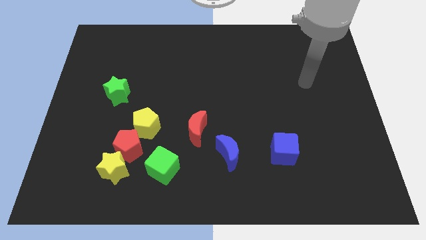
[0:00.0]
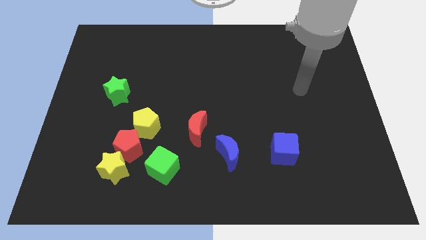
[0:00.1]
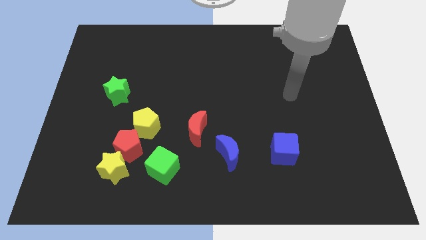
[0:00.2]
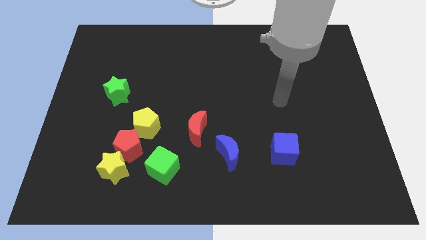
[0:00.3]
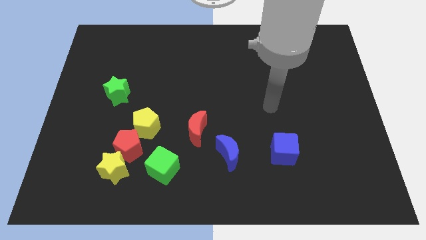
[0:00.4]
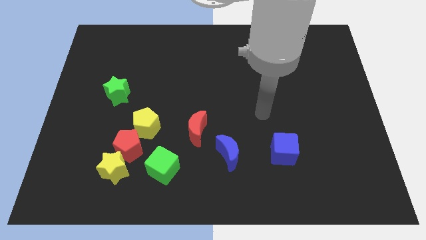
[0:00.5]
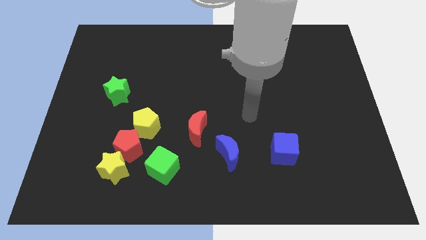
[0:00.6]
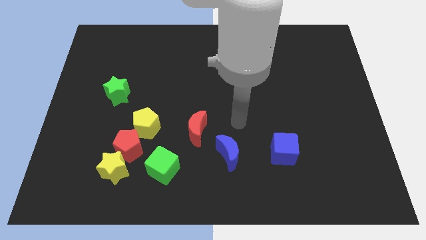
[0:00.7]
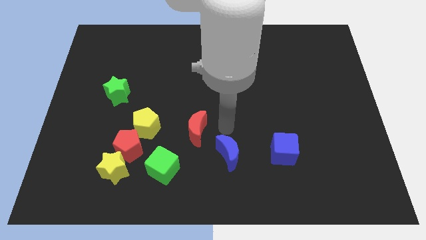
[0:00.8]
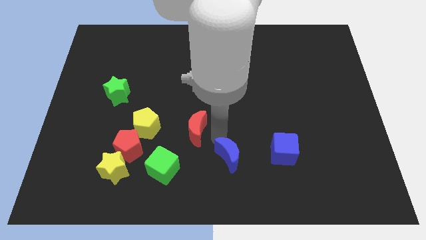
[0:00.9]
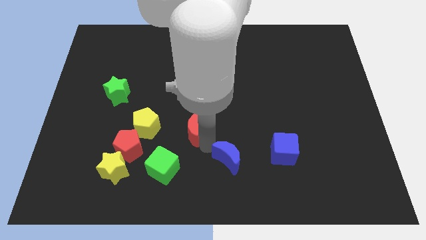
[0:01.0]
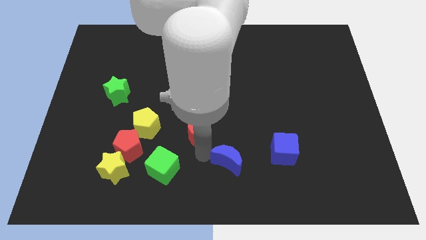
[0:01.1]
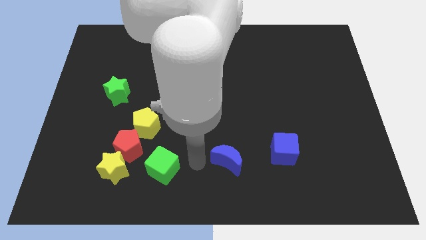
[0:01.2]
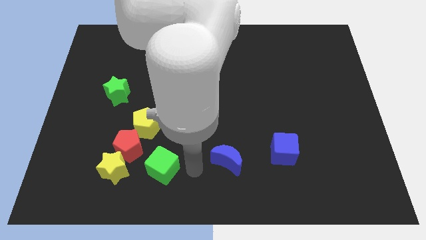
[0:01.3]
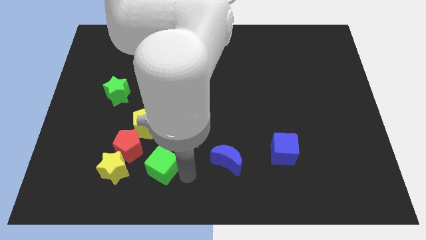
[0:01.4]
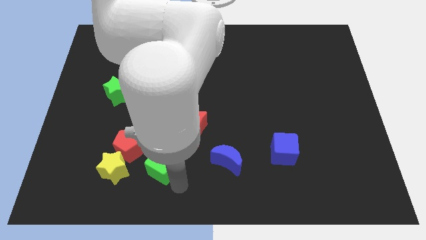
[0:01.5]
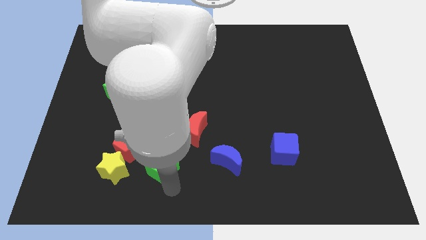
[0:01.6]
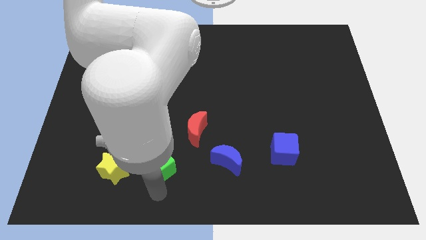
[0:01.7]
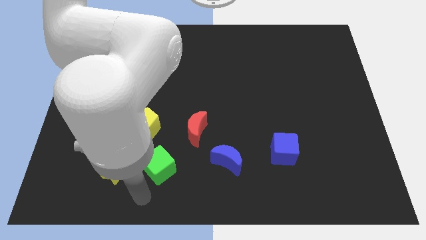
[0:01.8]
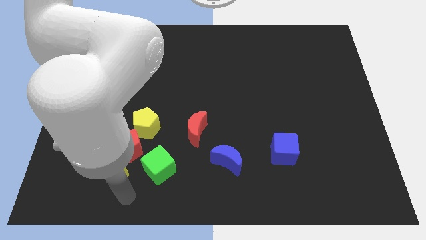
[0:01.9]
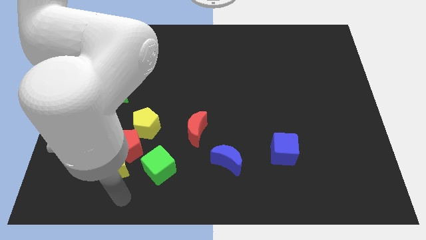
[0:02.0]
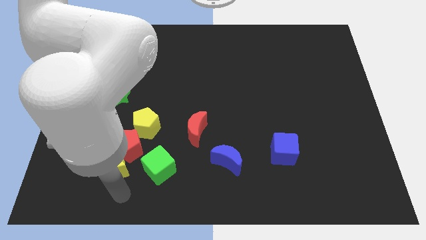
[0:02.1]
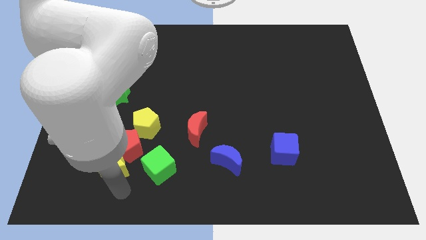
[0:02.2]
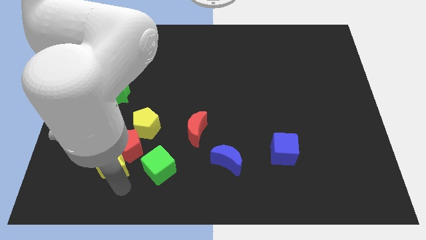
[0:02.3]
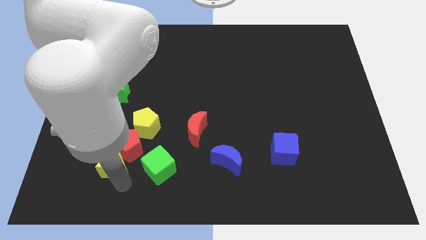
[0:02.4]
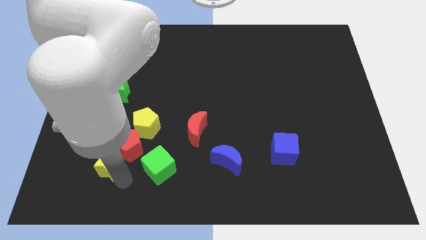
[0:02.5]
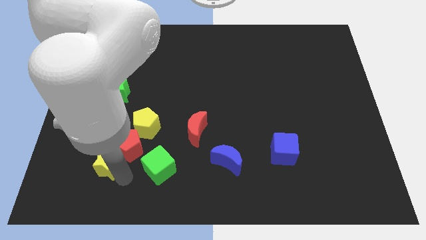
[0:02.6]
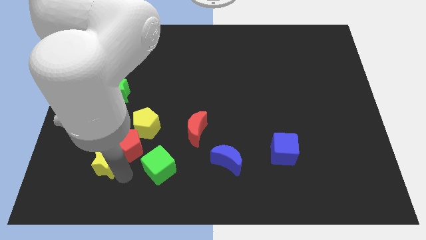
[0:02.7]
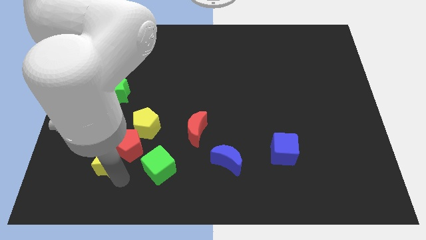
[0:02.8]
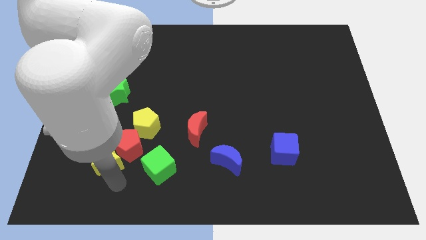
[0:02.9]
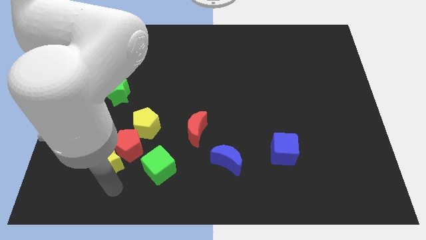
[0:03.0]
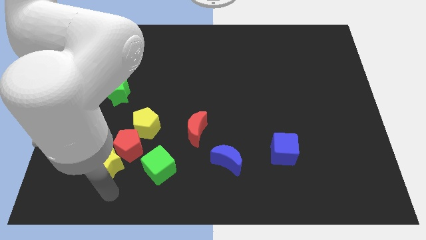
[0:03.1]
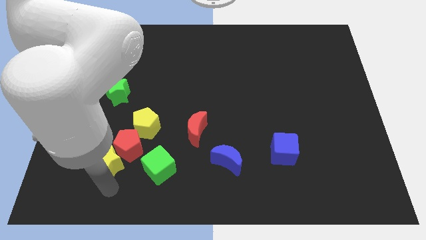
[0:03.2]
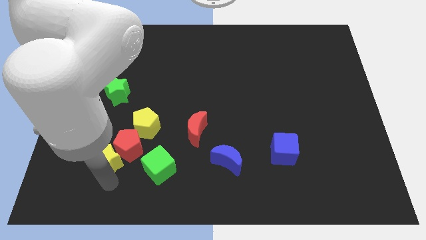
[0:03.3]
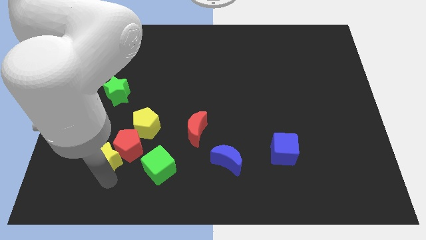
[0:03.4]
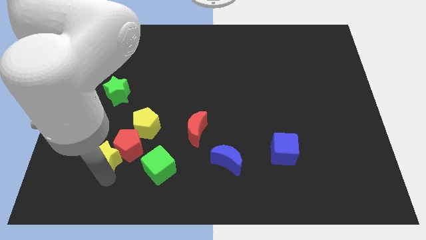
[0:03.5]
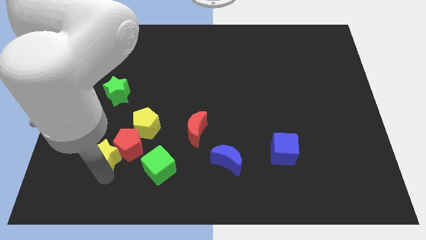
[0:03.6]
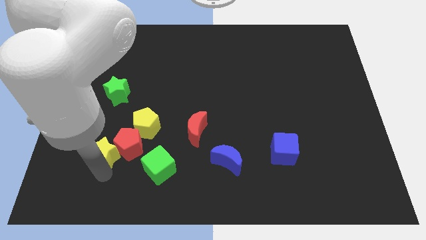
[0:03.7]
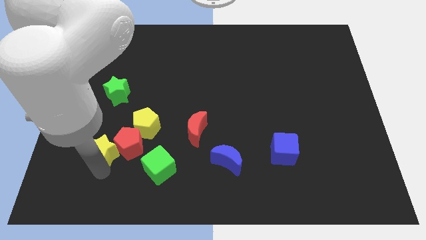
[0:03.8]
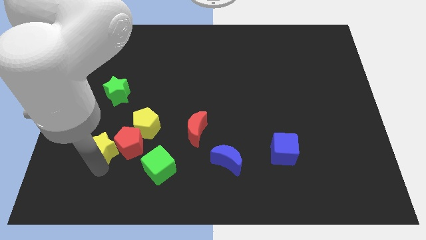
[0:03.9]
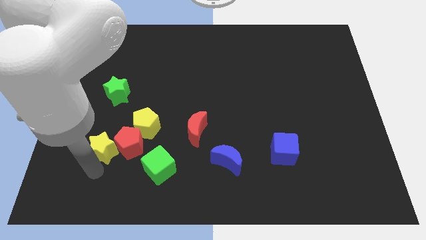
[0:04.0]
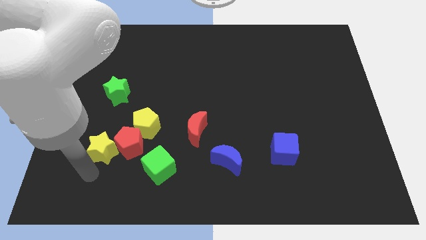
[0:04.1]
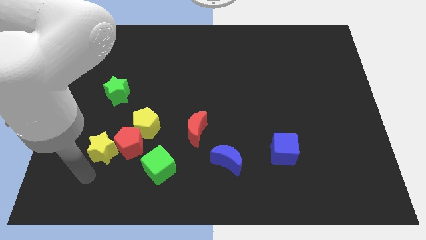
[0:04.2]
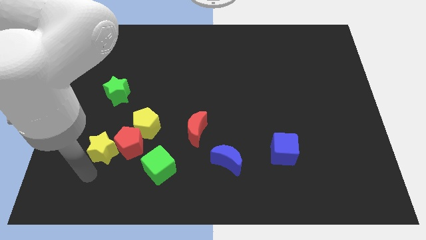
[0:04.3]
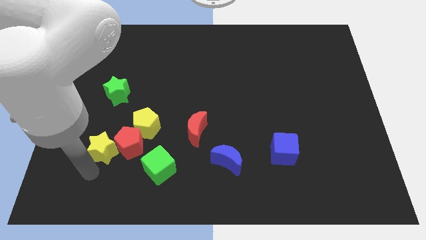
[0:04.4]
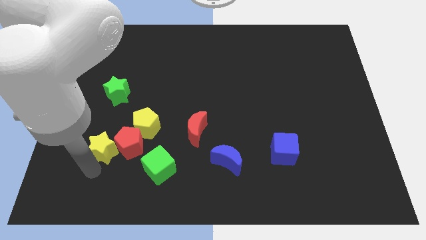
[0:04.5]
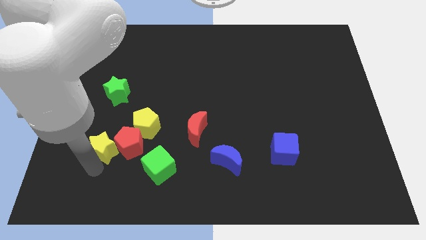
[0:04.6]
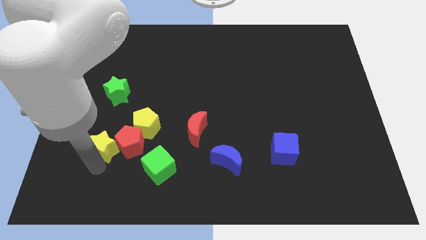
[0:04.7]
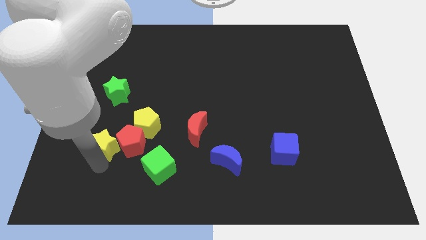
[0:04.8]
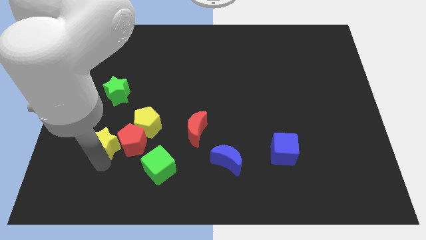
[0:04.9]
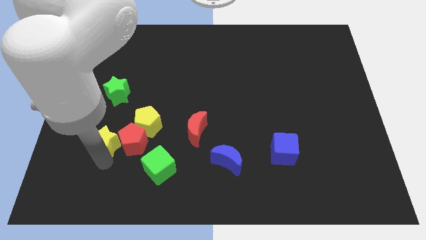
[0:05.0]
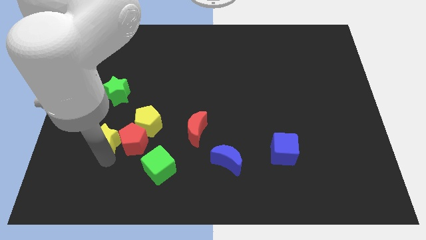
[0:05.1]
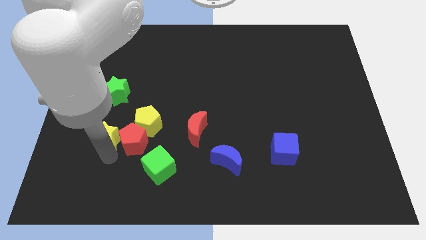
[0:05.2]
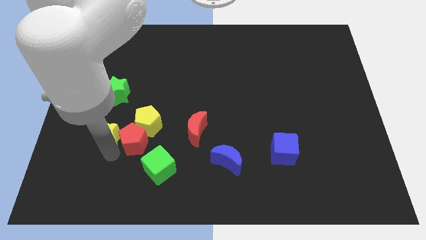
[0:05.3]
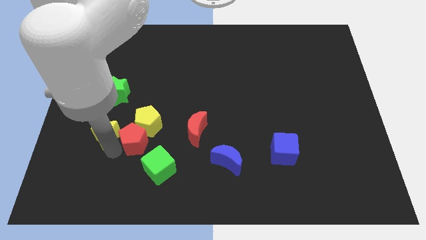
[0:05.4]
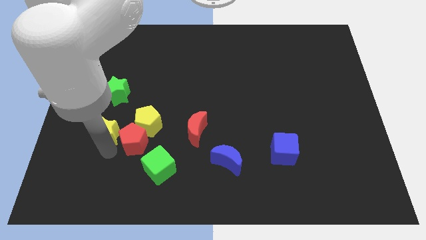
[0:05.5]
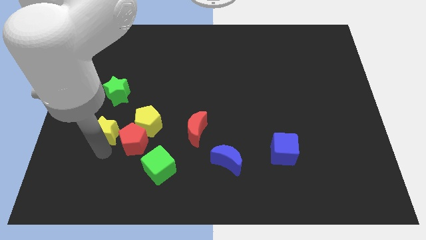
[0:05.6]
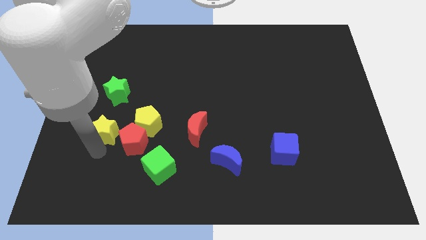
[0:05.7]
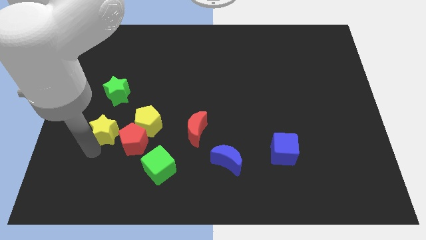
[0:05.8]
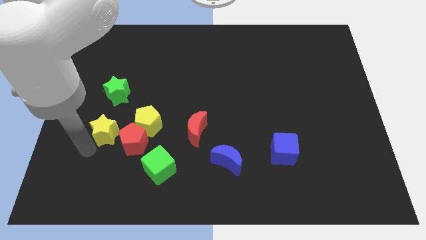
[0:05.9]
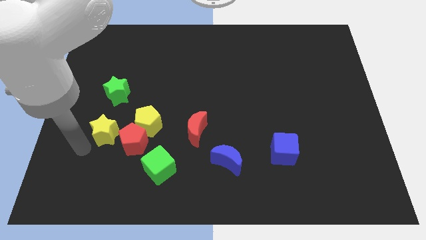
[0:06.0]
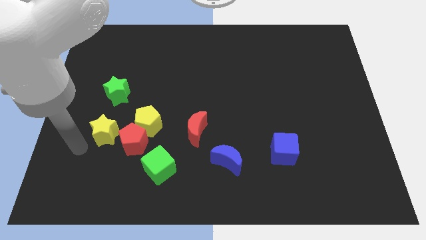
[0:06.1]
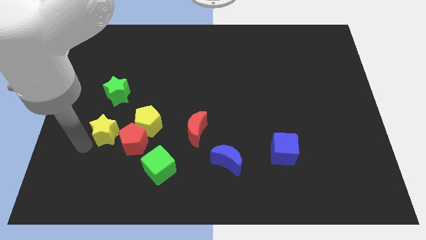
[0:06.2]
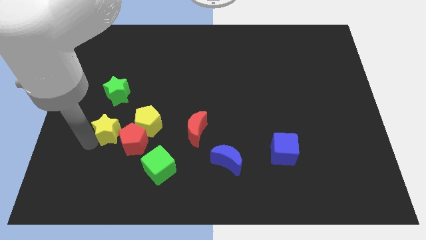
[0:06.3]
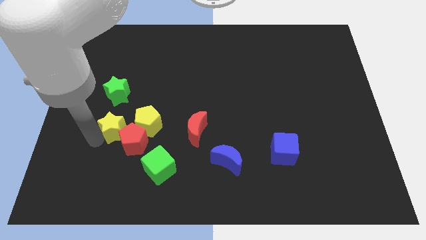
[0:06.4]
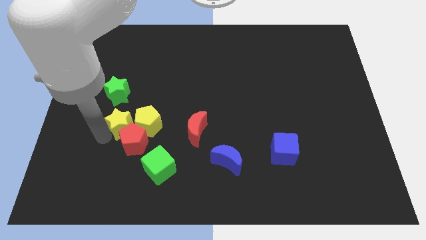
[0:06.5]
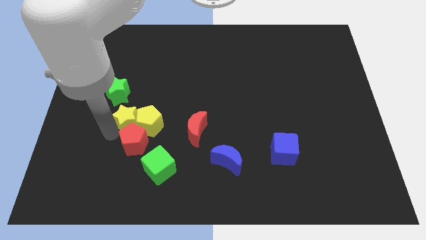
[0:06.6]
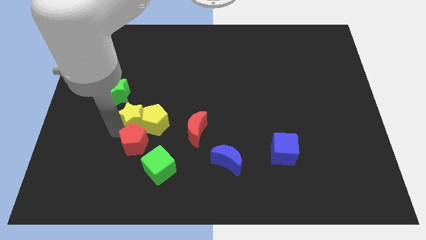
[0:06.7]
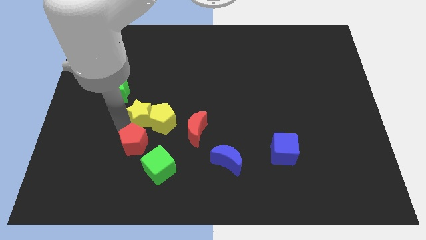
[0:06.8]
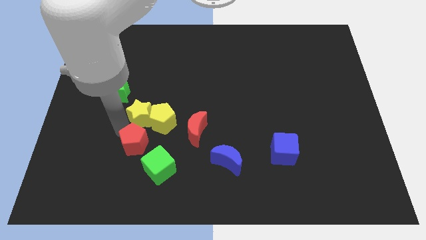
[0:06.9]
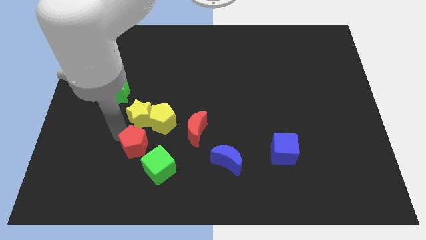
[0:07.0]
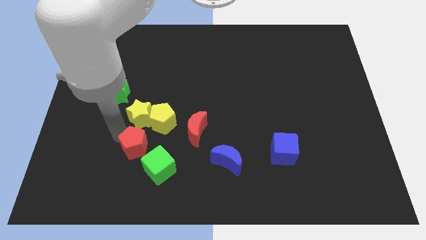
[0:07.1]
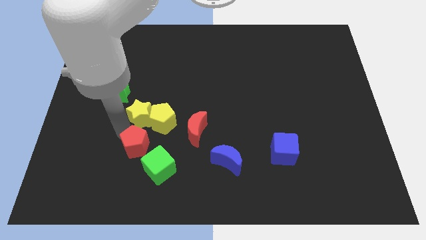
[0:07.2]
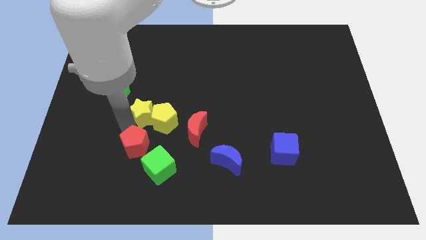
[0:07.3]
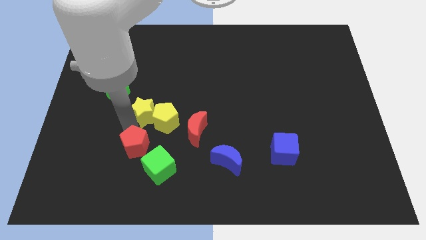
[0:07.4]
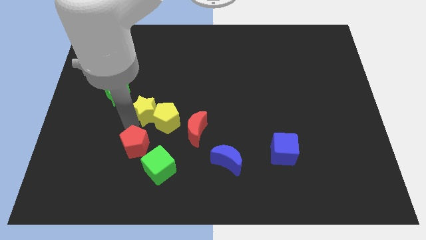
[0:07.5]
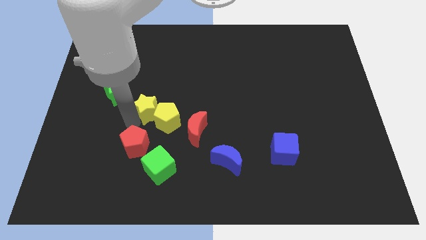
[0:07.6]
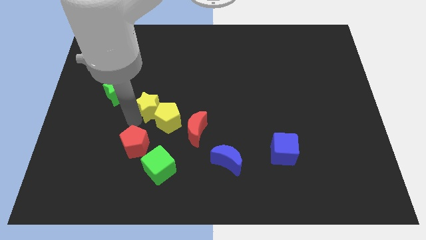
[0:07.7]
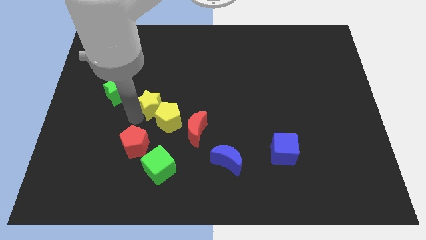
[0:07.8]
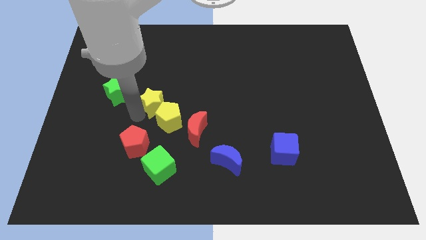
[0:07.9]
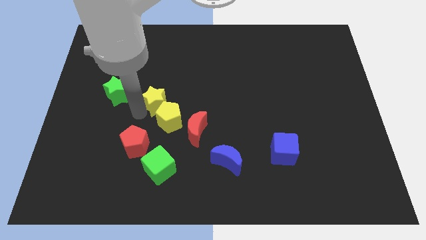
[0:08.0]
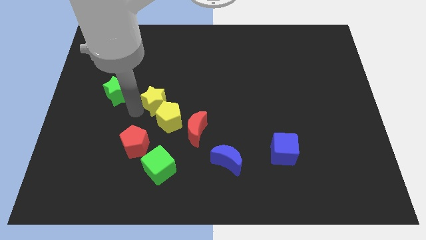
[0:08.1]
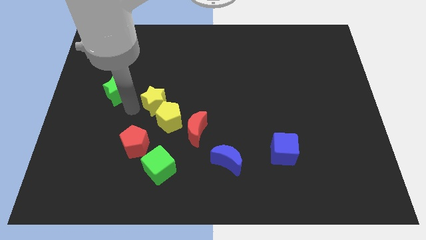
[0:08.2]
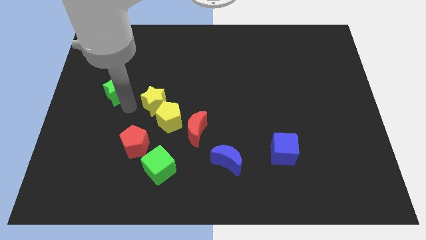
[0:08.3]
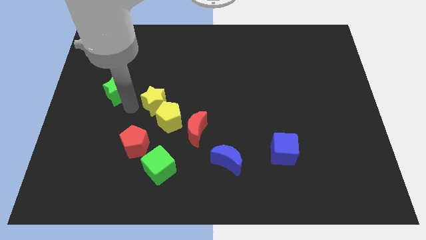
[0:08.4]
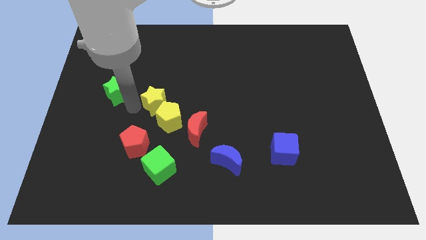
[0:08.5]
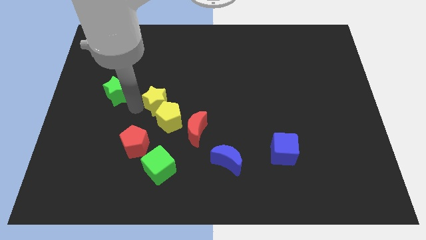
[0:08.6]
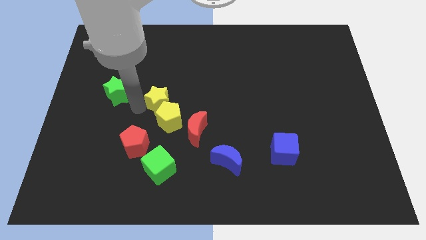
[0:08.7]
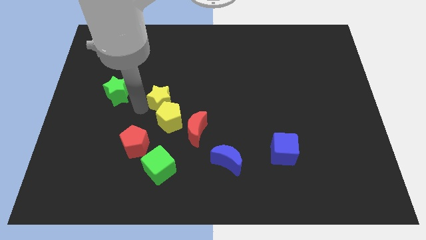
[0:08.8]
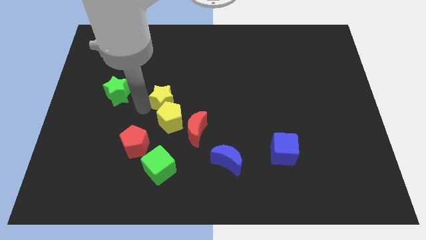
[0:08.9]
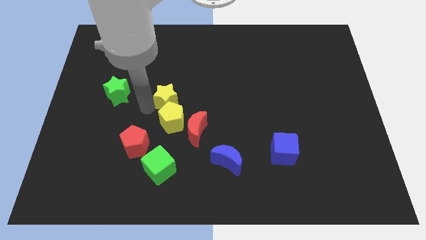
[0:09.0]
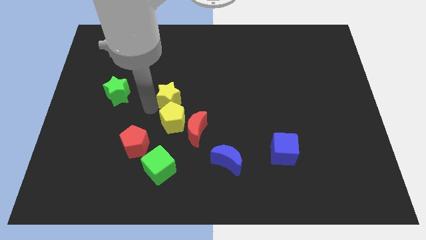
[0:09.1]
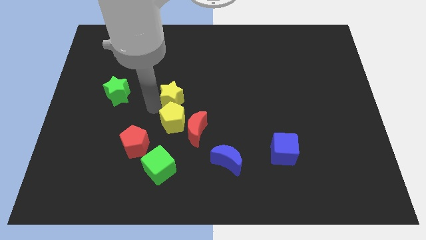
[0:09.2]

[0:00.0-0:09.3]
slide the yellow star upwards and then right
